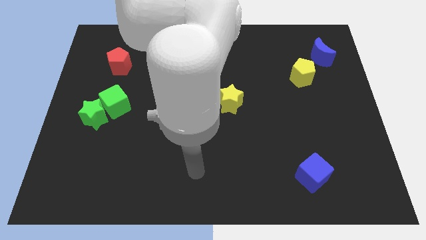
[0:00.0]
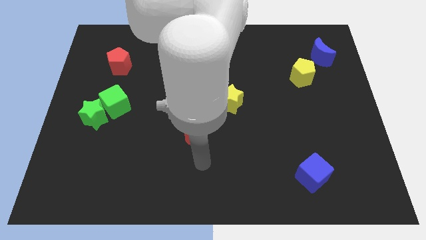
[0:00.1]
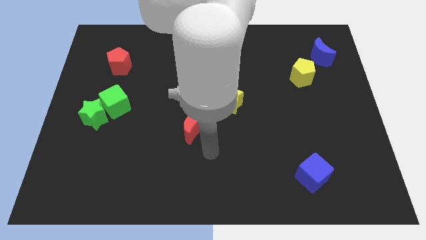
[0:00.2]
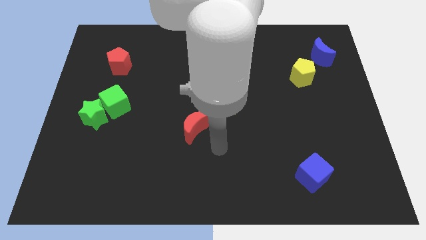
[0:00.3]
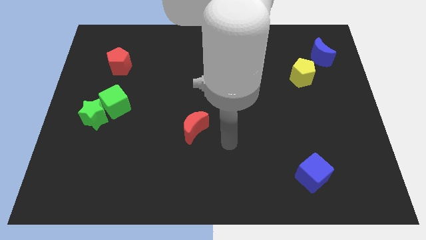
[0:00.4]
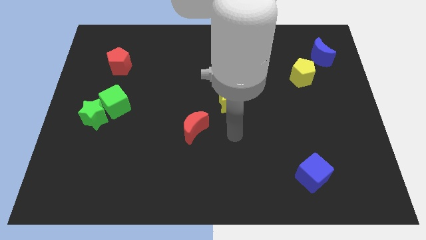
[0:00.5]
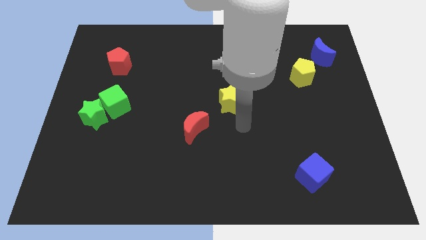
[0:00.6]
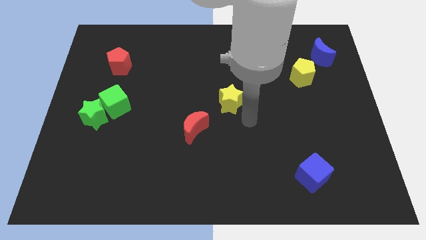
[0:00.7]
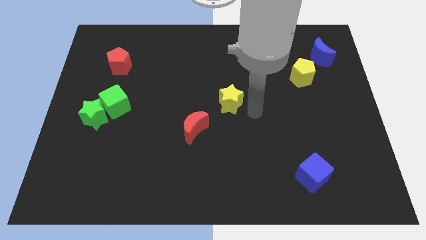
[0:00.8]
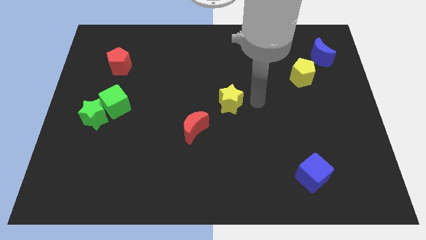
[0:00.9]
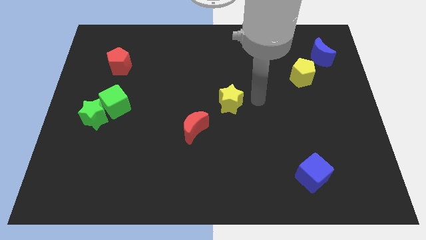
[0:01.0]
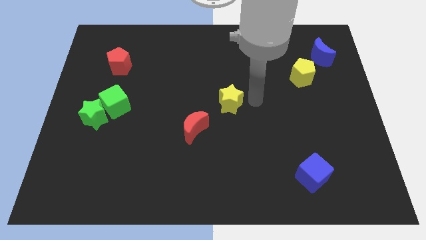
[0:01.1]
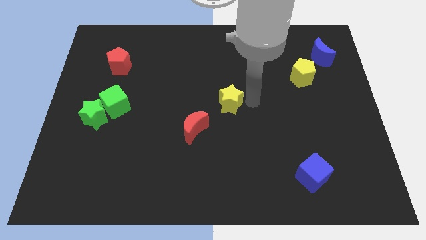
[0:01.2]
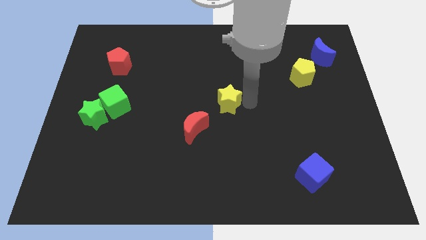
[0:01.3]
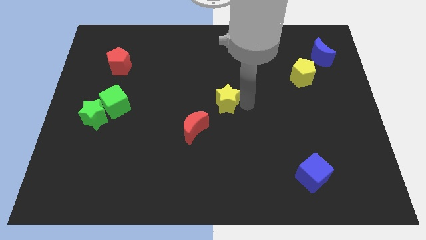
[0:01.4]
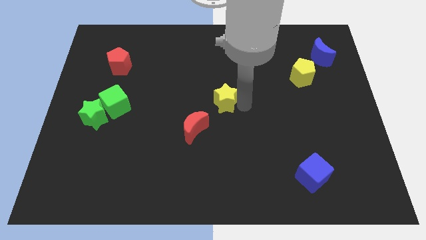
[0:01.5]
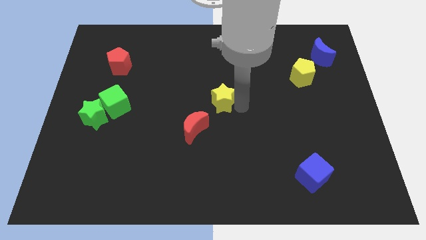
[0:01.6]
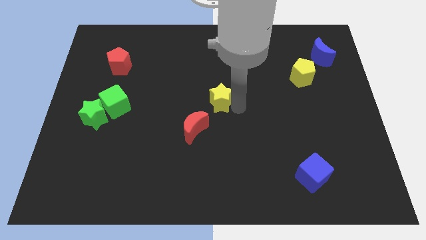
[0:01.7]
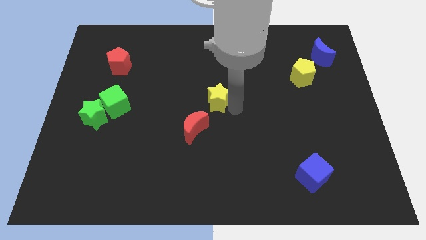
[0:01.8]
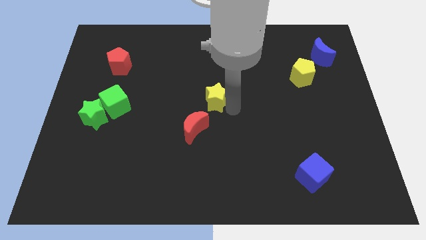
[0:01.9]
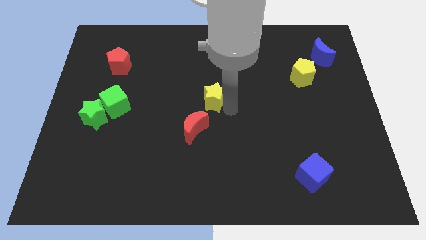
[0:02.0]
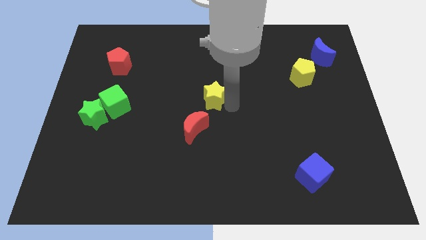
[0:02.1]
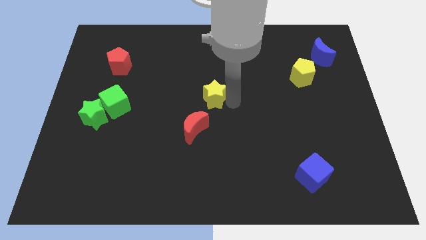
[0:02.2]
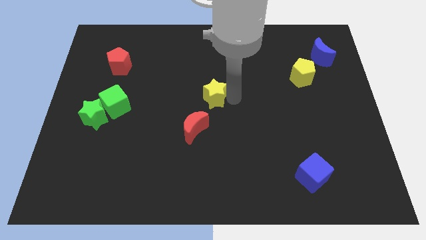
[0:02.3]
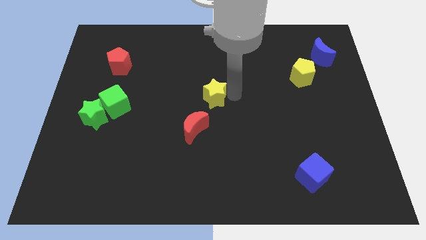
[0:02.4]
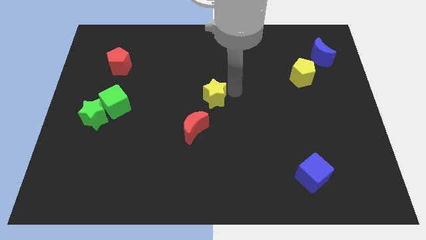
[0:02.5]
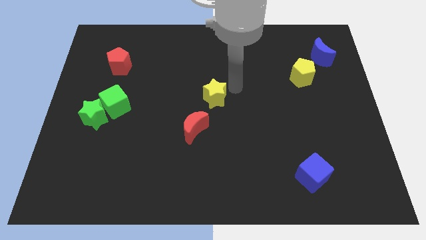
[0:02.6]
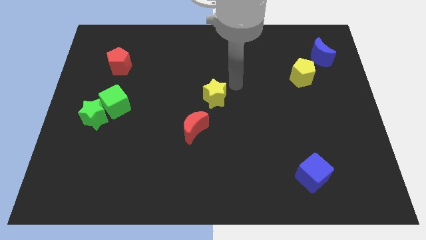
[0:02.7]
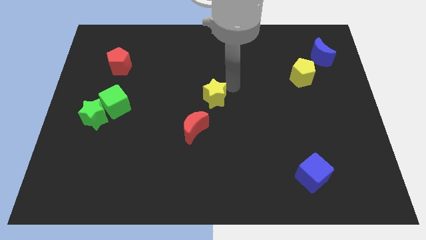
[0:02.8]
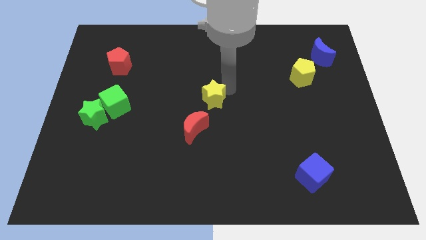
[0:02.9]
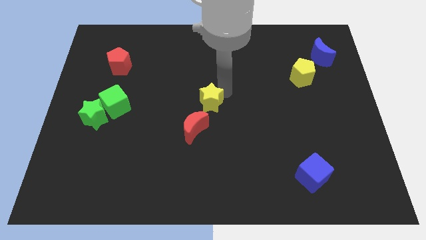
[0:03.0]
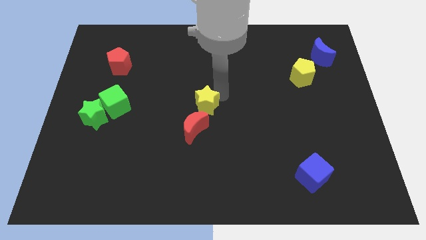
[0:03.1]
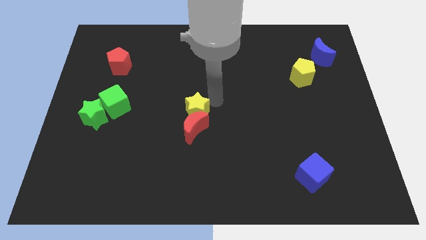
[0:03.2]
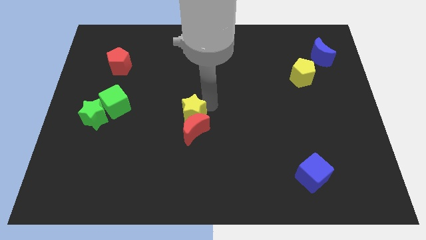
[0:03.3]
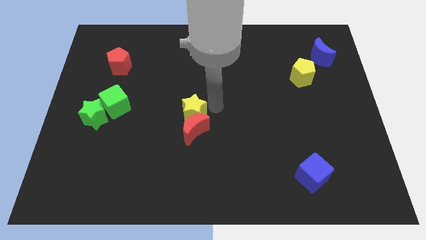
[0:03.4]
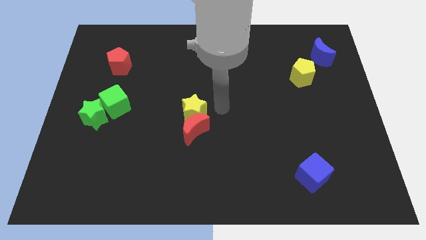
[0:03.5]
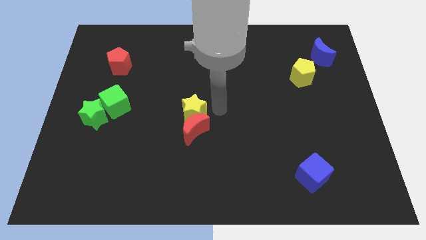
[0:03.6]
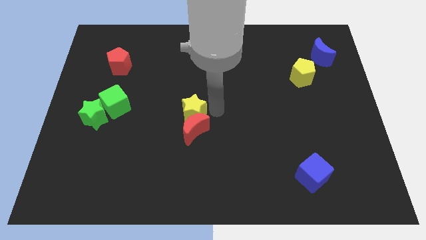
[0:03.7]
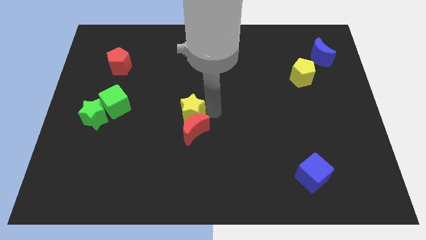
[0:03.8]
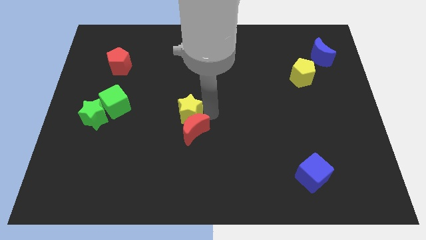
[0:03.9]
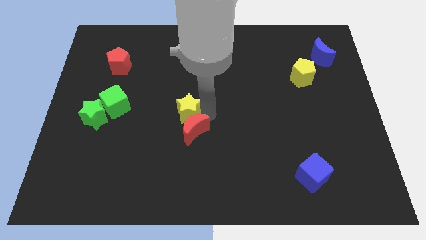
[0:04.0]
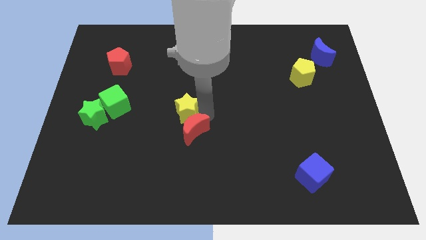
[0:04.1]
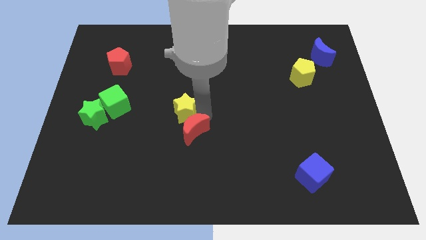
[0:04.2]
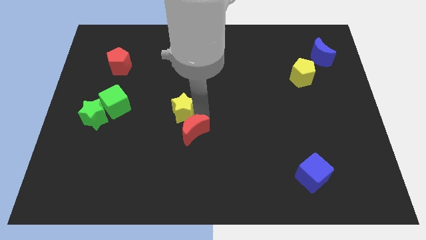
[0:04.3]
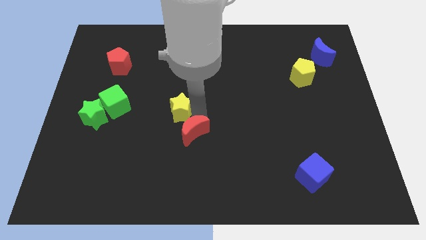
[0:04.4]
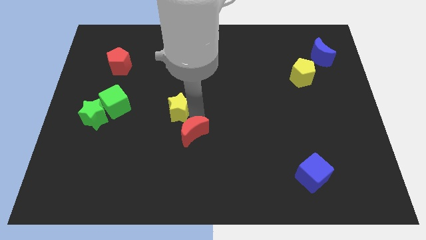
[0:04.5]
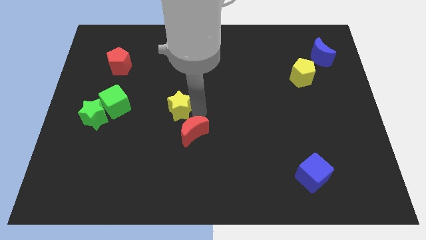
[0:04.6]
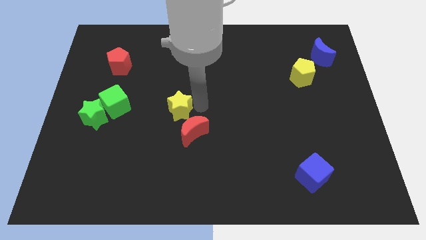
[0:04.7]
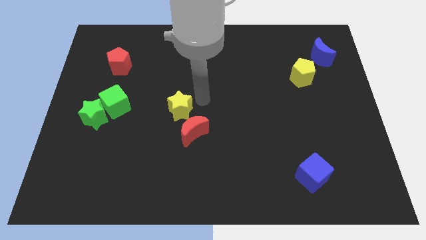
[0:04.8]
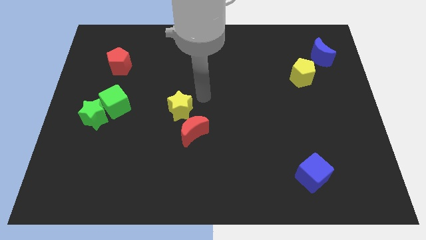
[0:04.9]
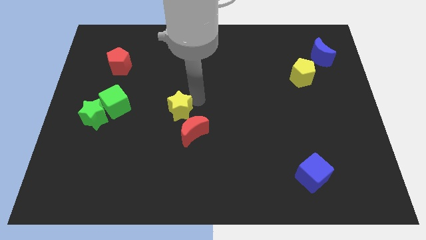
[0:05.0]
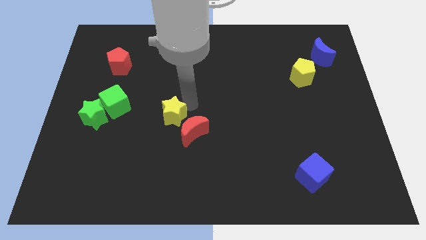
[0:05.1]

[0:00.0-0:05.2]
put the yellow star to the left of the red moon

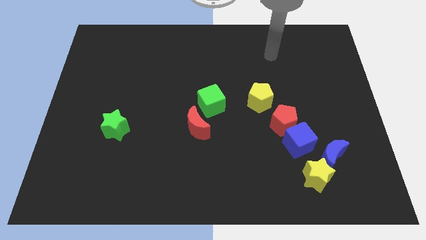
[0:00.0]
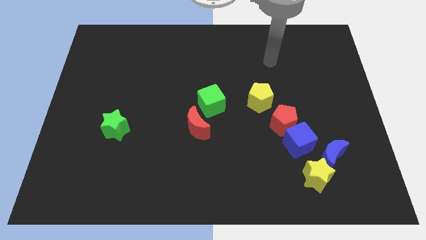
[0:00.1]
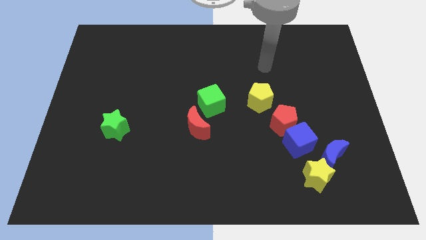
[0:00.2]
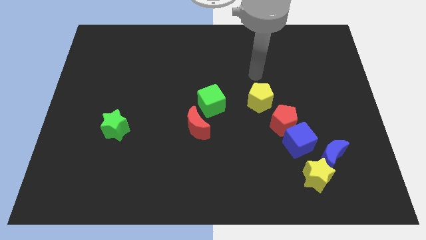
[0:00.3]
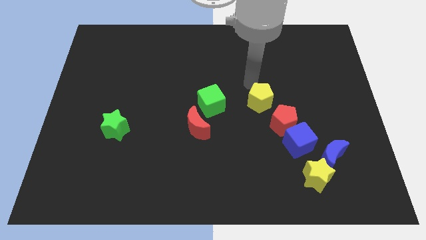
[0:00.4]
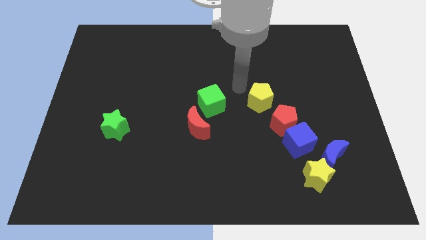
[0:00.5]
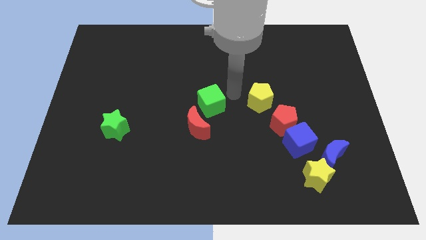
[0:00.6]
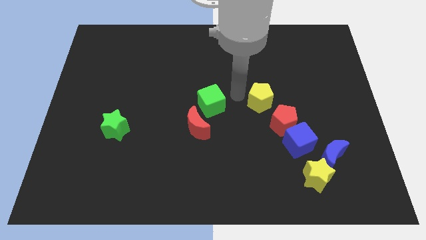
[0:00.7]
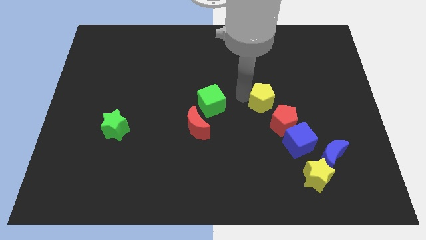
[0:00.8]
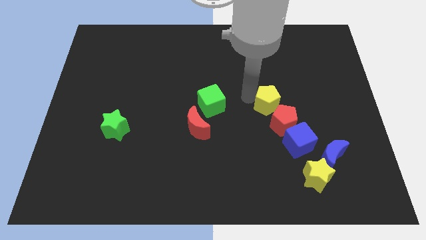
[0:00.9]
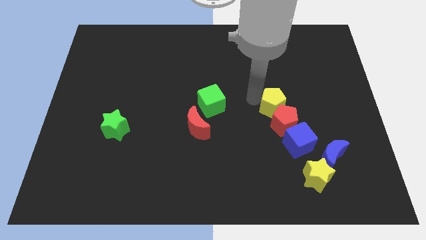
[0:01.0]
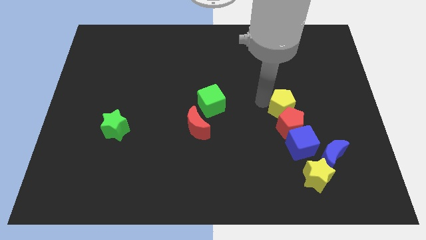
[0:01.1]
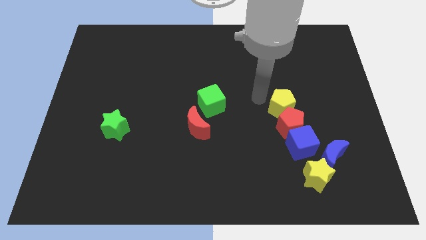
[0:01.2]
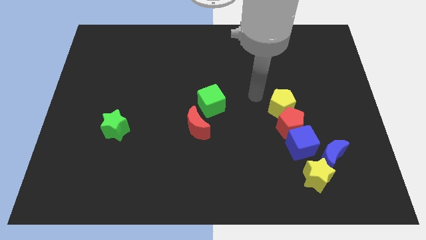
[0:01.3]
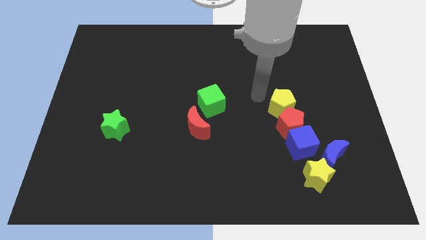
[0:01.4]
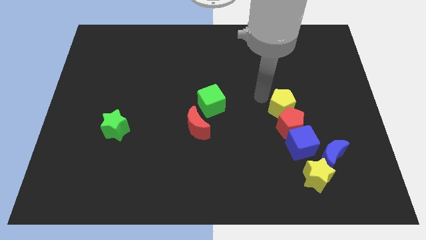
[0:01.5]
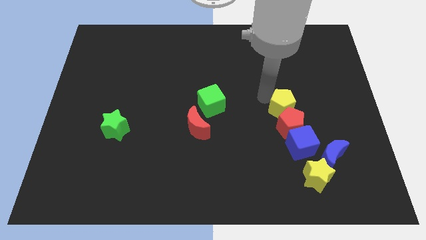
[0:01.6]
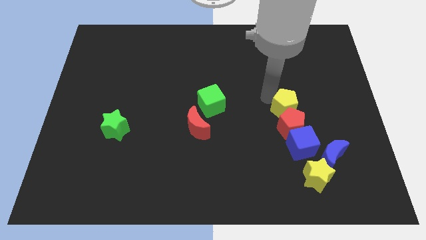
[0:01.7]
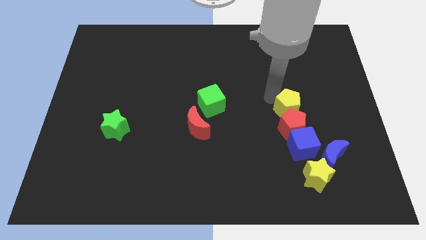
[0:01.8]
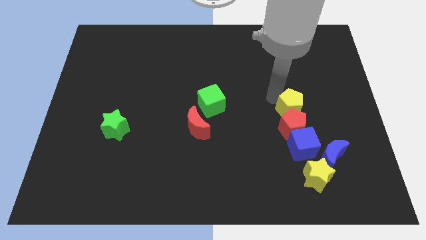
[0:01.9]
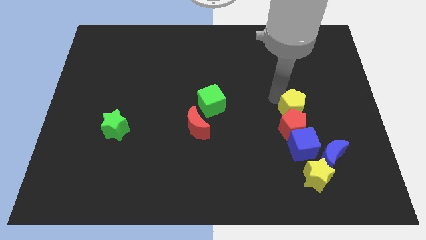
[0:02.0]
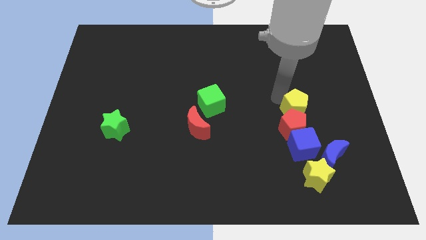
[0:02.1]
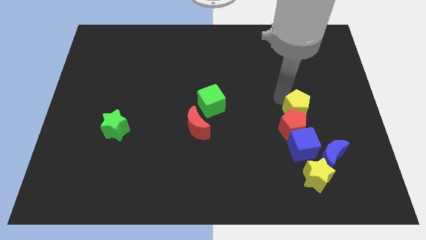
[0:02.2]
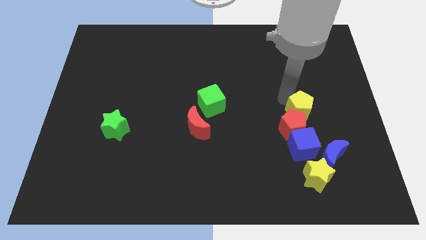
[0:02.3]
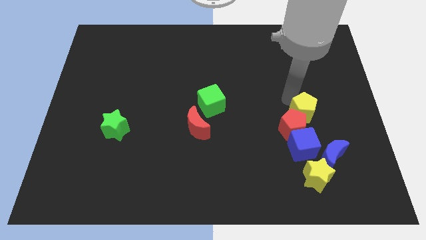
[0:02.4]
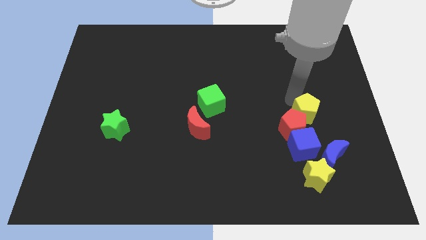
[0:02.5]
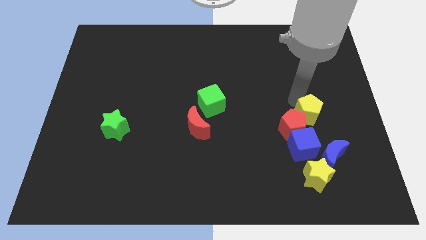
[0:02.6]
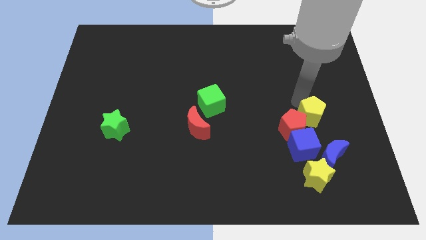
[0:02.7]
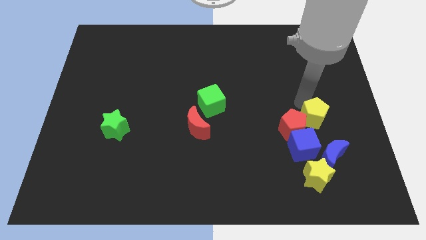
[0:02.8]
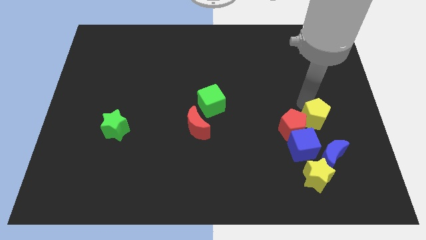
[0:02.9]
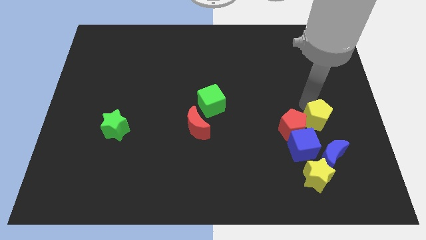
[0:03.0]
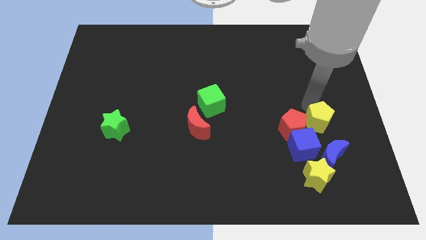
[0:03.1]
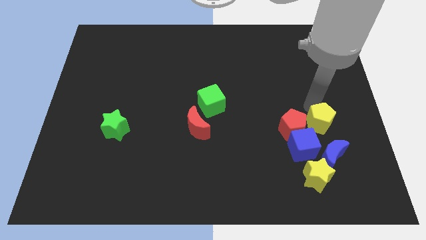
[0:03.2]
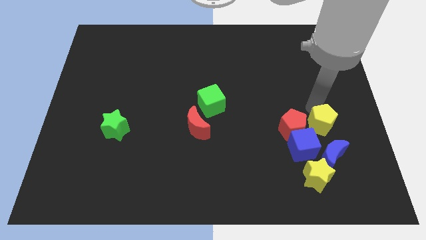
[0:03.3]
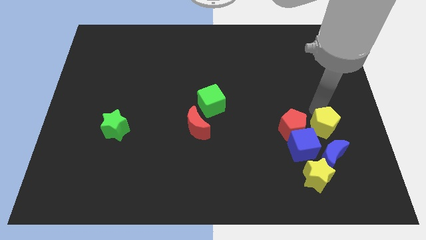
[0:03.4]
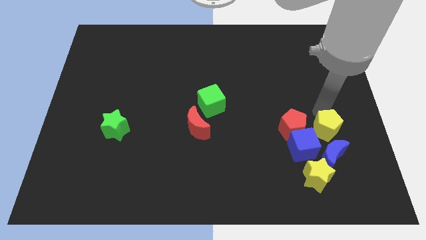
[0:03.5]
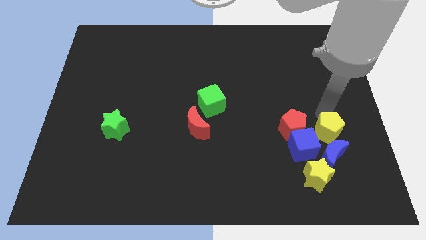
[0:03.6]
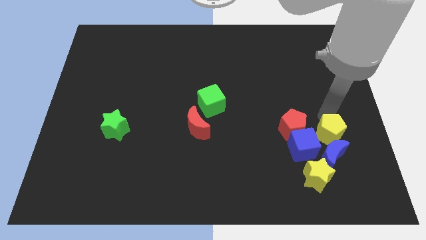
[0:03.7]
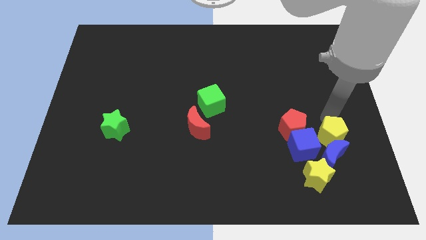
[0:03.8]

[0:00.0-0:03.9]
put the yellow pentagon to the top right side of the yellow star
